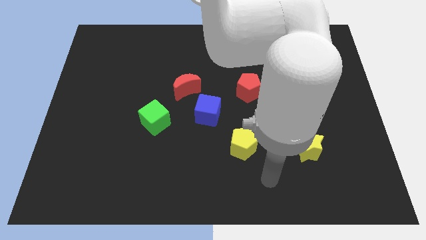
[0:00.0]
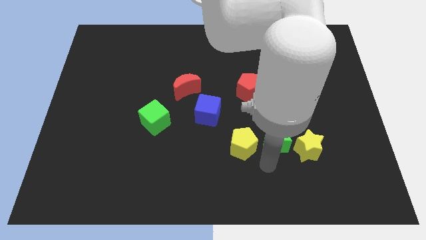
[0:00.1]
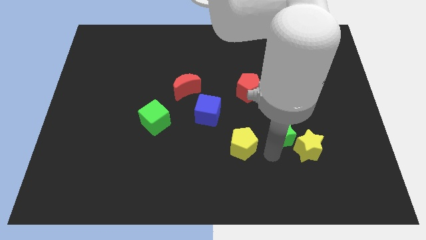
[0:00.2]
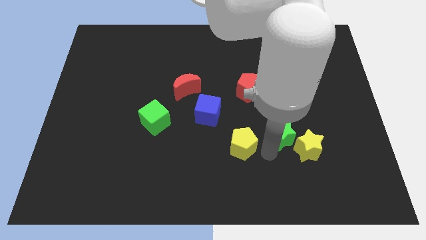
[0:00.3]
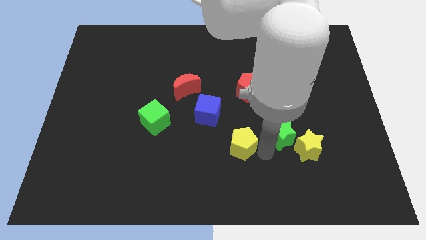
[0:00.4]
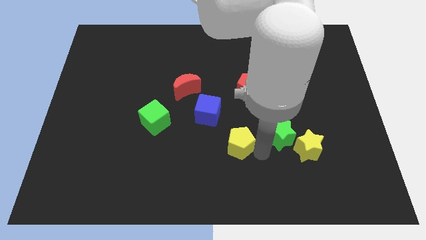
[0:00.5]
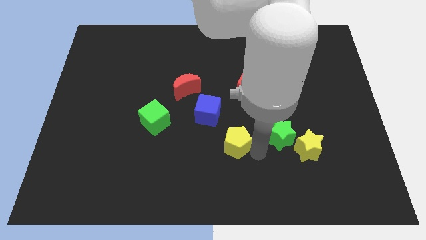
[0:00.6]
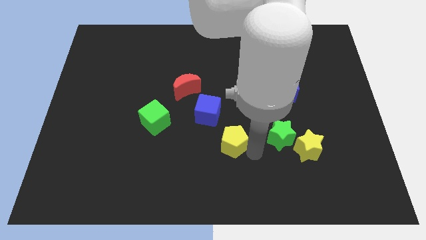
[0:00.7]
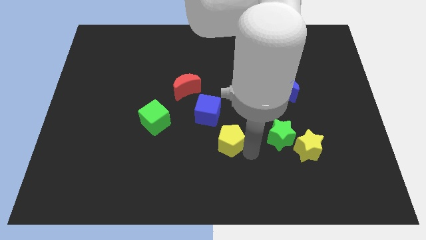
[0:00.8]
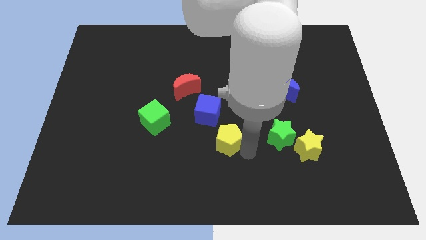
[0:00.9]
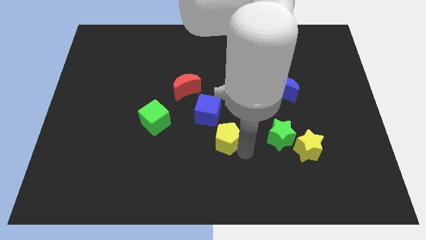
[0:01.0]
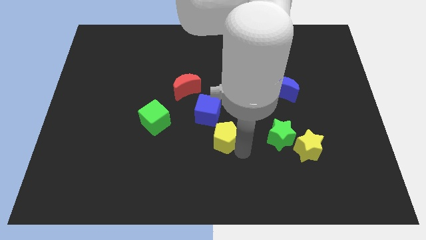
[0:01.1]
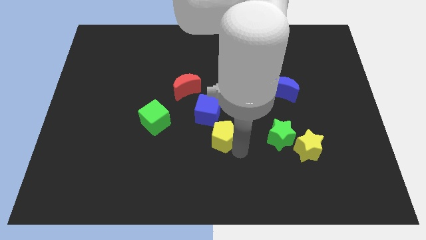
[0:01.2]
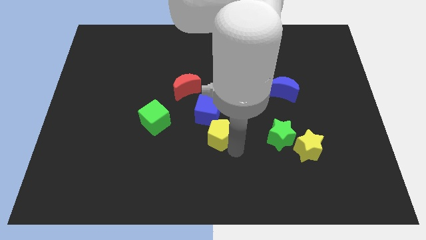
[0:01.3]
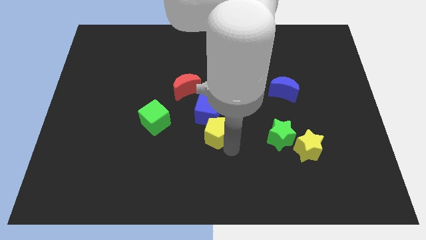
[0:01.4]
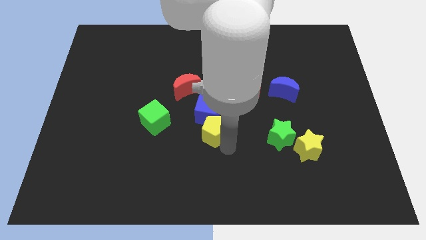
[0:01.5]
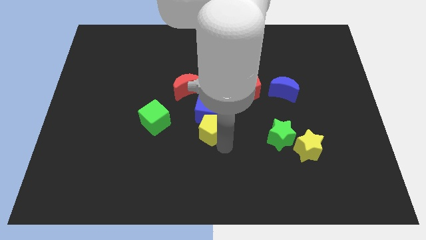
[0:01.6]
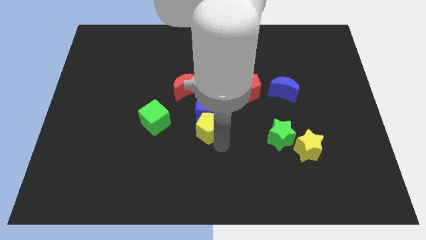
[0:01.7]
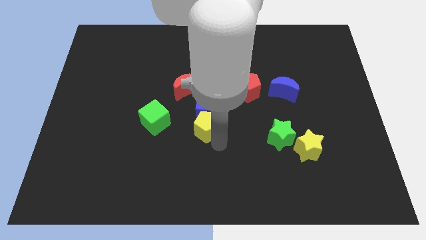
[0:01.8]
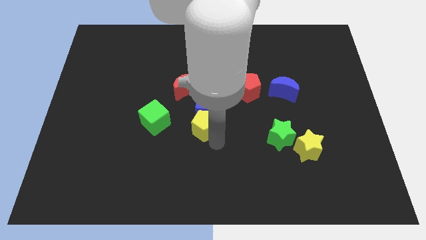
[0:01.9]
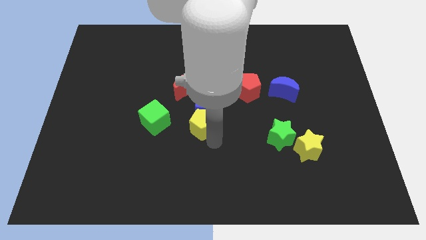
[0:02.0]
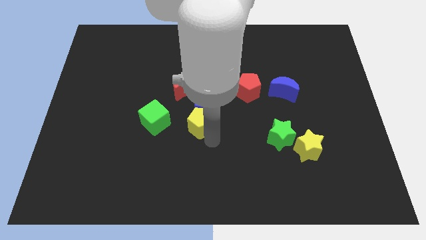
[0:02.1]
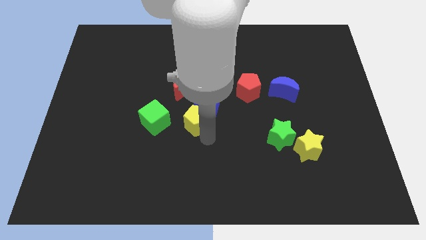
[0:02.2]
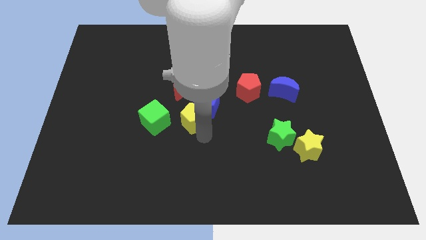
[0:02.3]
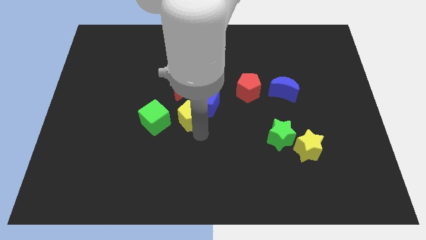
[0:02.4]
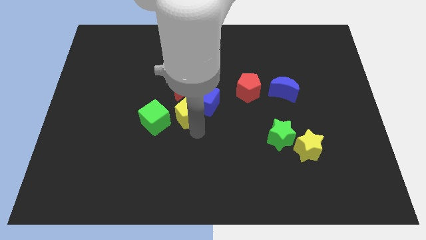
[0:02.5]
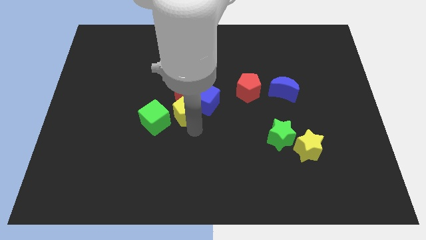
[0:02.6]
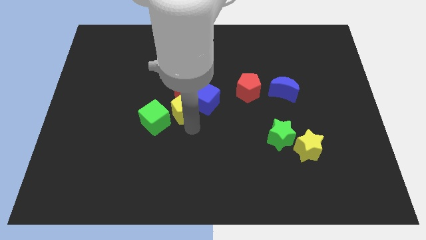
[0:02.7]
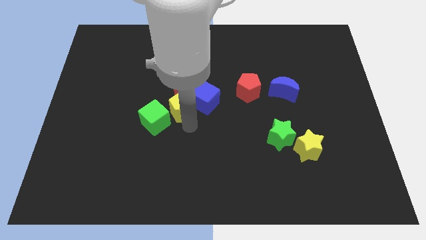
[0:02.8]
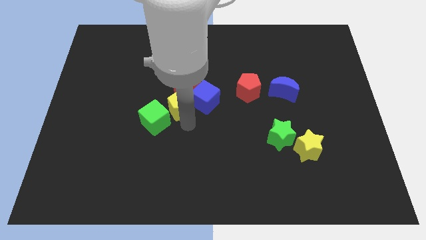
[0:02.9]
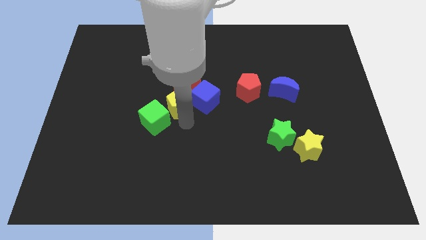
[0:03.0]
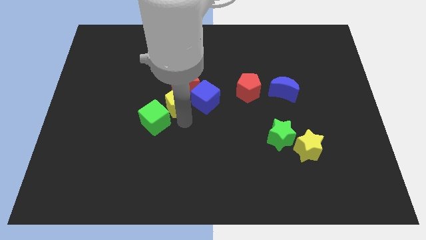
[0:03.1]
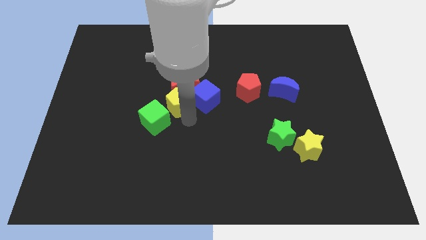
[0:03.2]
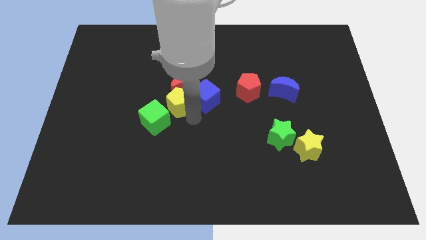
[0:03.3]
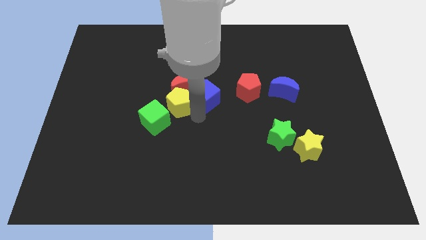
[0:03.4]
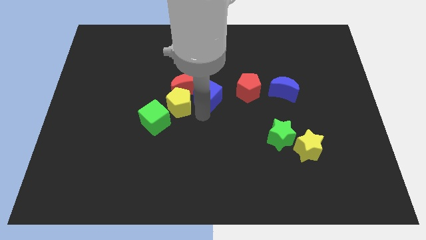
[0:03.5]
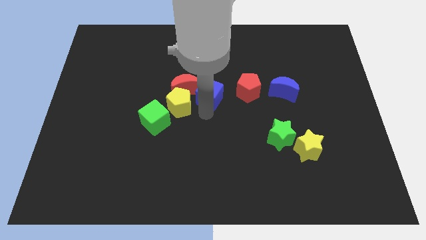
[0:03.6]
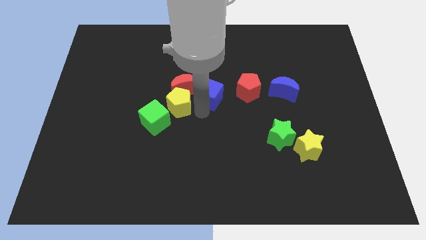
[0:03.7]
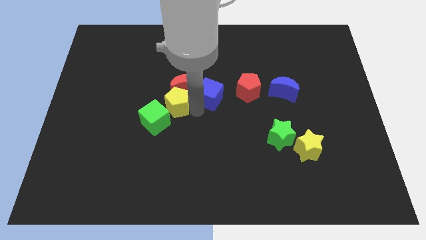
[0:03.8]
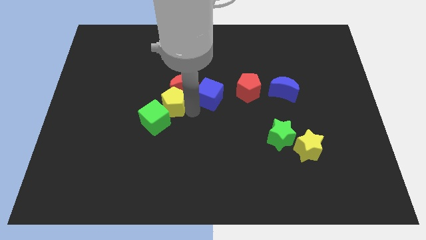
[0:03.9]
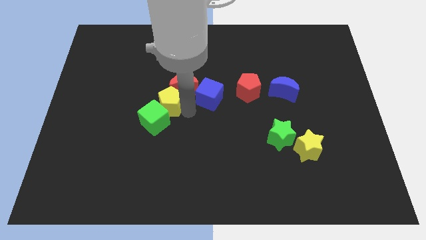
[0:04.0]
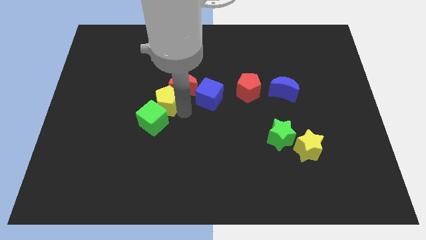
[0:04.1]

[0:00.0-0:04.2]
move the yellow pentagon upwards and to the left

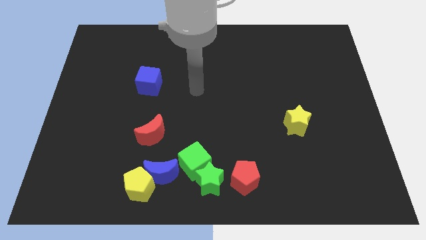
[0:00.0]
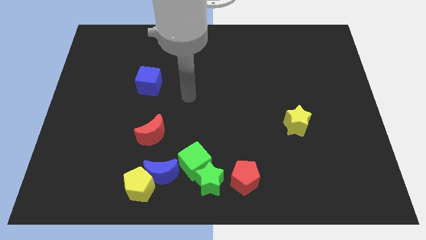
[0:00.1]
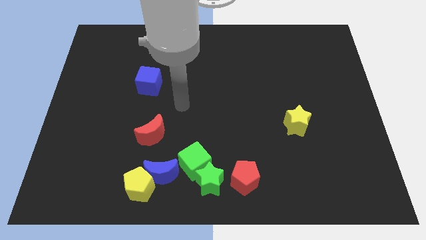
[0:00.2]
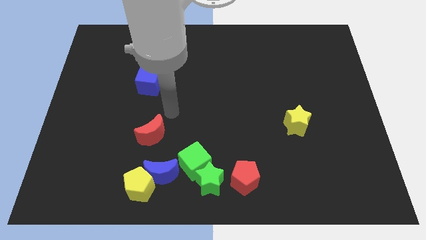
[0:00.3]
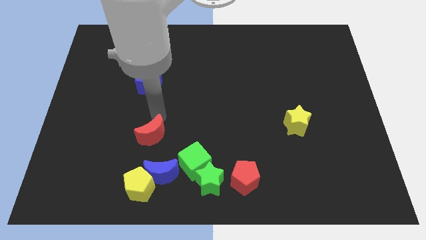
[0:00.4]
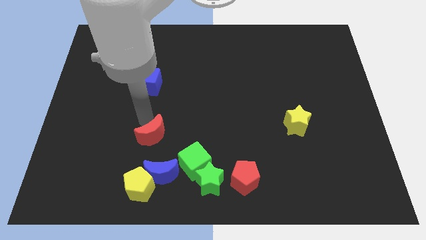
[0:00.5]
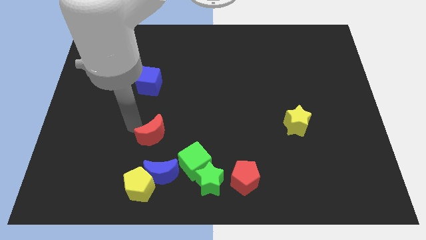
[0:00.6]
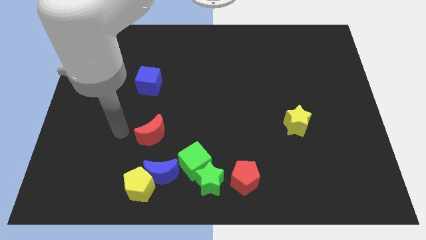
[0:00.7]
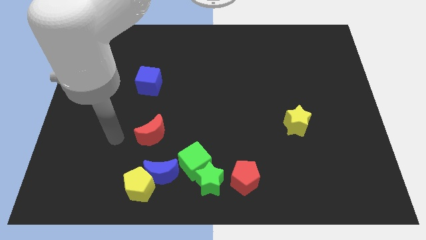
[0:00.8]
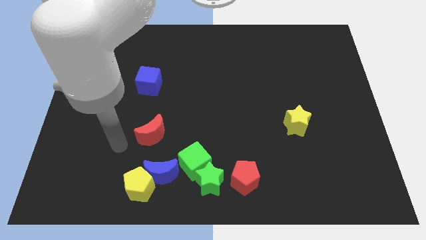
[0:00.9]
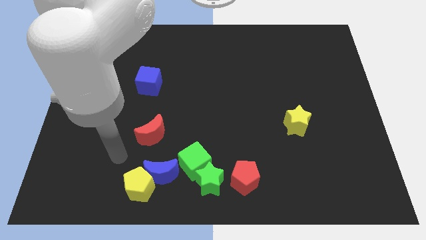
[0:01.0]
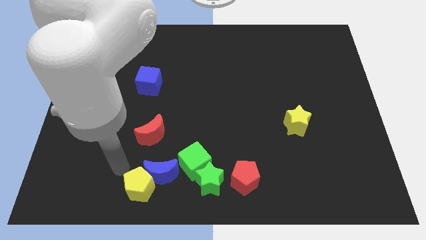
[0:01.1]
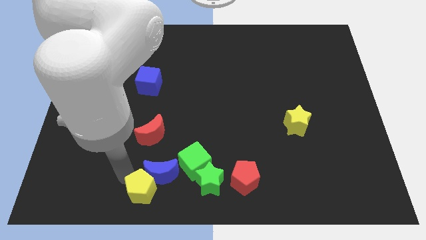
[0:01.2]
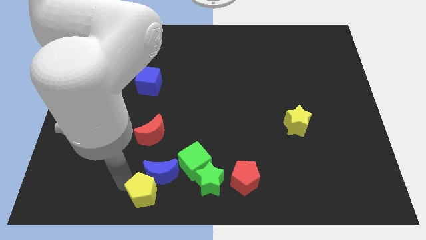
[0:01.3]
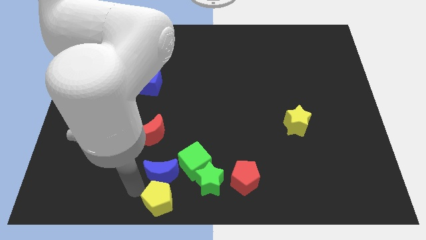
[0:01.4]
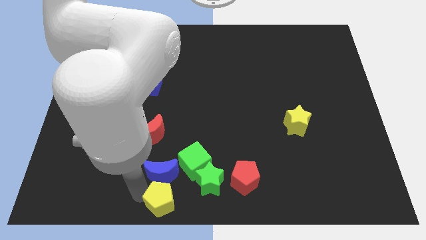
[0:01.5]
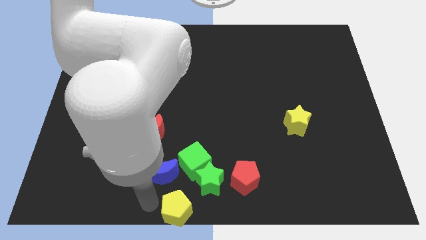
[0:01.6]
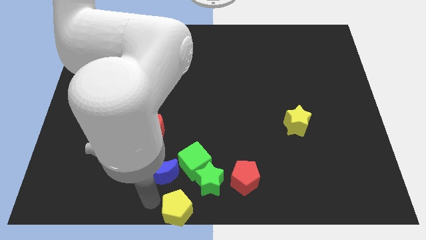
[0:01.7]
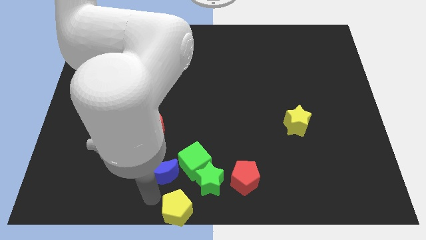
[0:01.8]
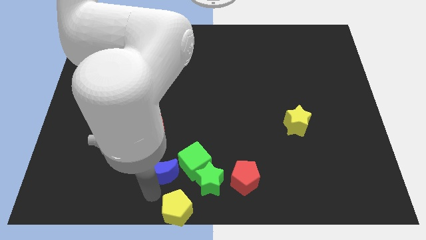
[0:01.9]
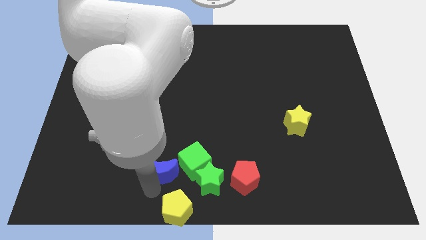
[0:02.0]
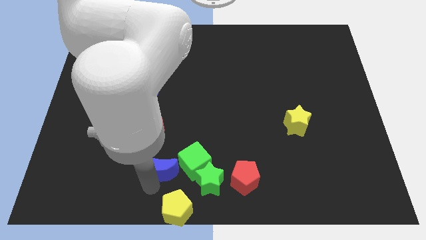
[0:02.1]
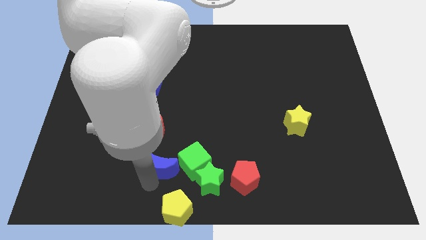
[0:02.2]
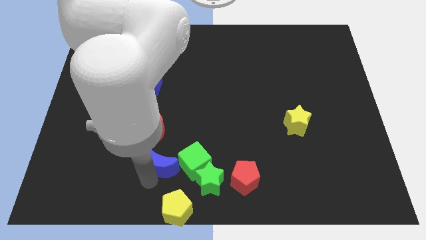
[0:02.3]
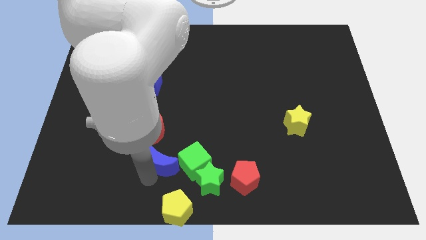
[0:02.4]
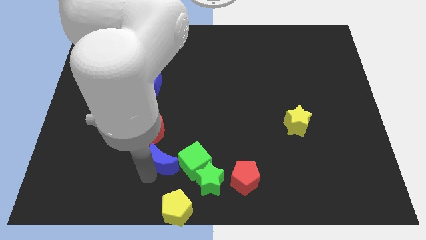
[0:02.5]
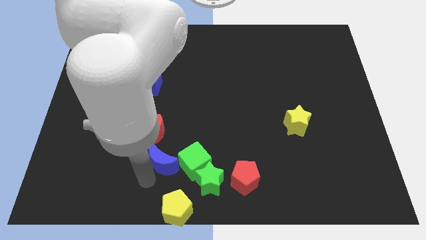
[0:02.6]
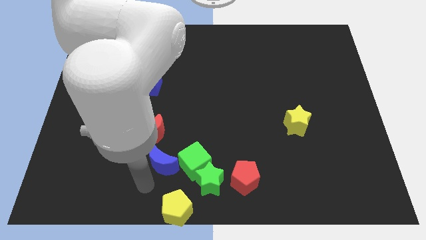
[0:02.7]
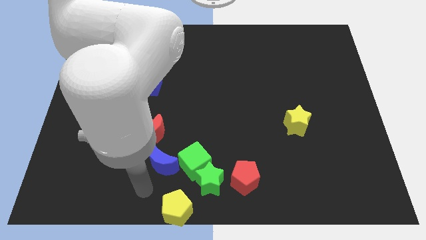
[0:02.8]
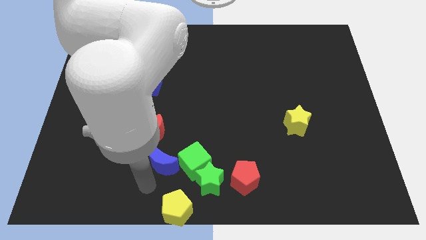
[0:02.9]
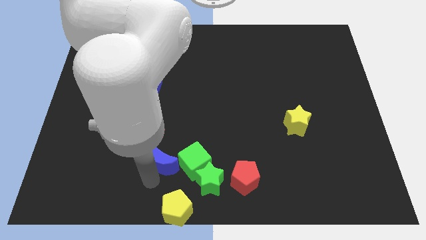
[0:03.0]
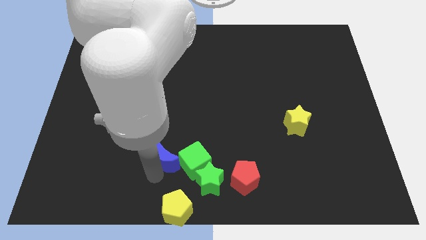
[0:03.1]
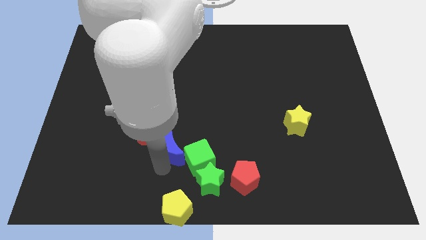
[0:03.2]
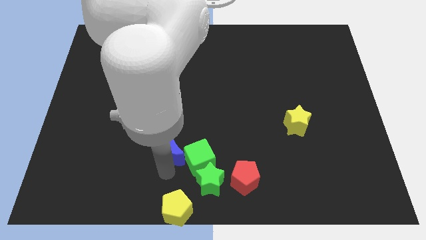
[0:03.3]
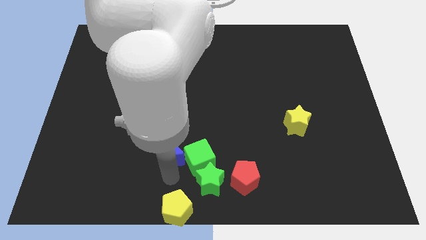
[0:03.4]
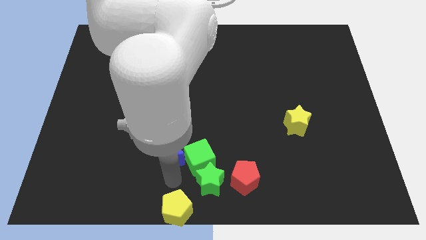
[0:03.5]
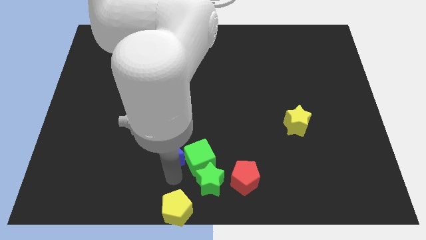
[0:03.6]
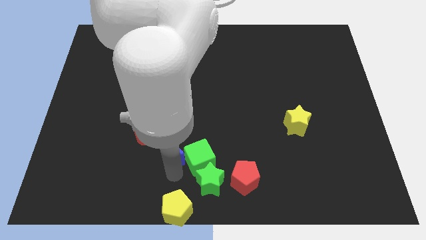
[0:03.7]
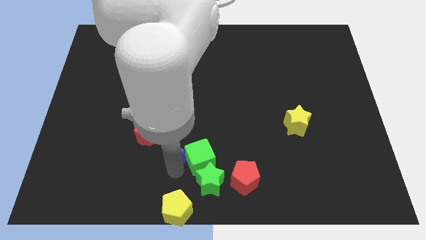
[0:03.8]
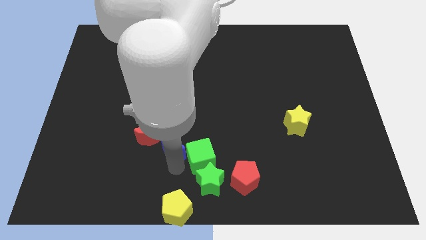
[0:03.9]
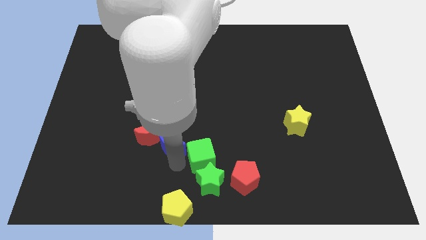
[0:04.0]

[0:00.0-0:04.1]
slightly push the blue moon upwards

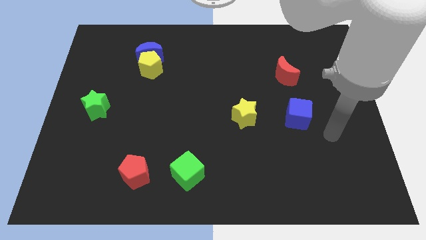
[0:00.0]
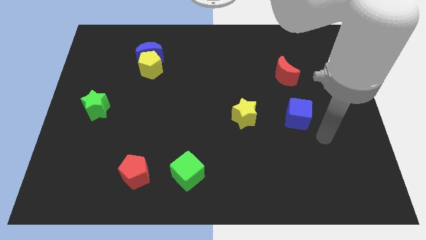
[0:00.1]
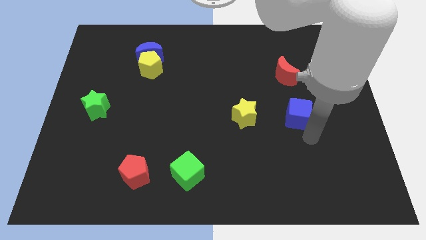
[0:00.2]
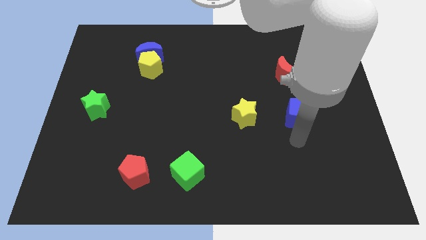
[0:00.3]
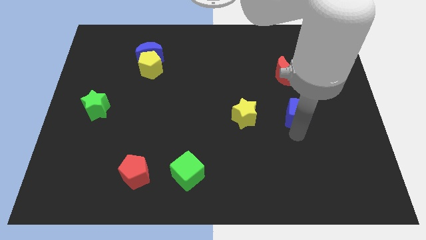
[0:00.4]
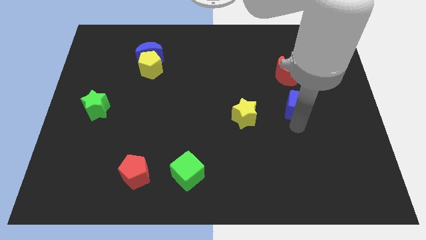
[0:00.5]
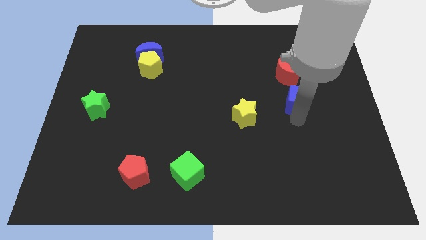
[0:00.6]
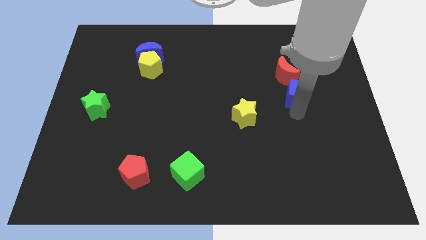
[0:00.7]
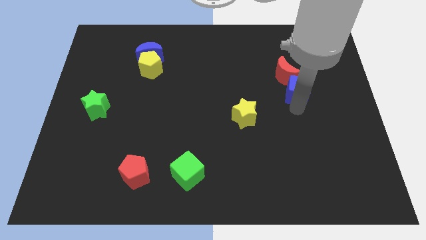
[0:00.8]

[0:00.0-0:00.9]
move the blue cube upwards somewhat
